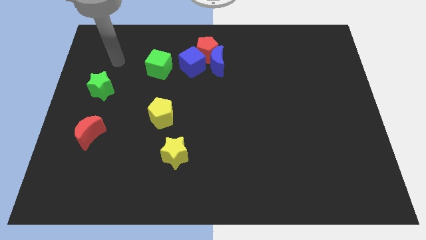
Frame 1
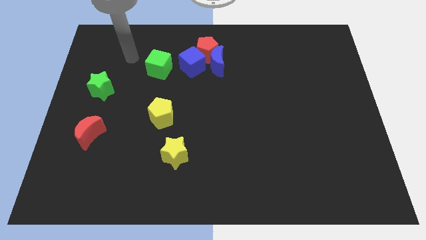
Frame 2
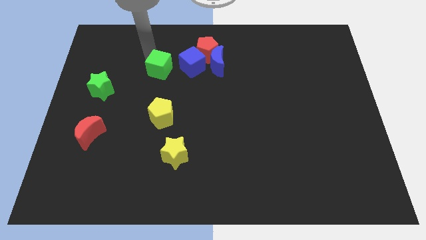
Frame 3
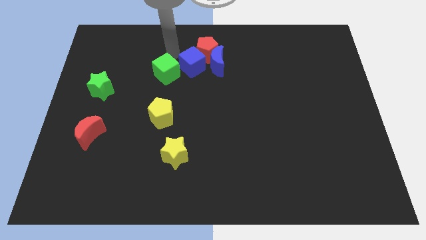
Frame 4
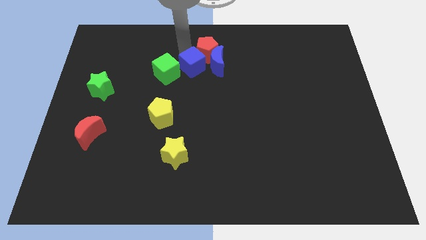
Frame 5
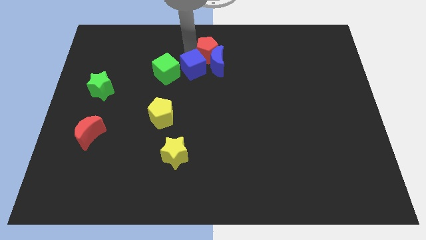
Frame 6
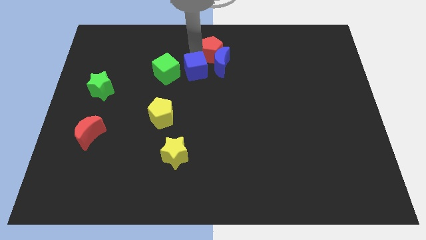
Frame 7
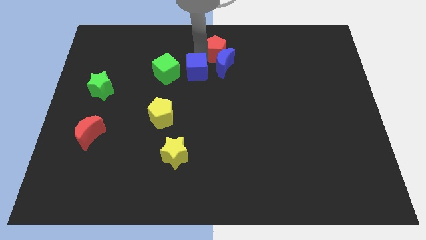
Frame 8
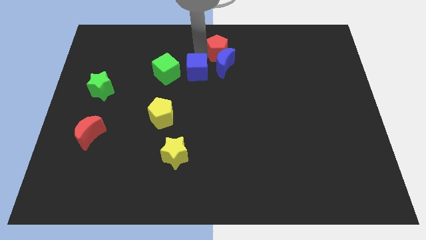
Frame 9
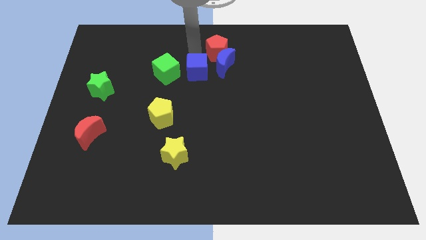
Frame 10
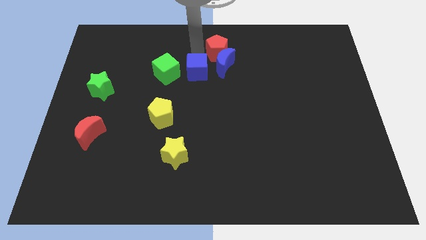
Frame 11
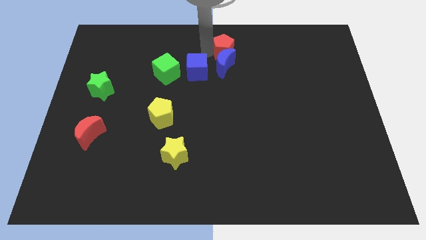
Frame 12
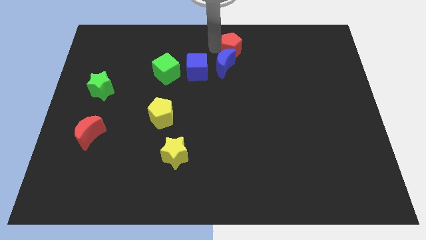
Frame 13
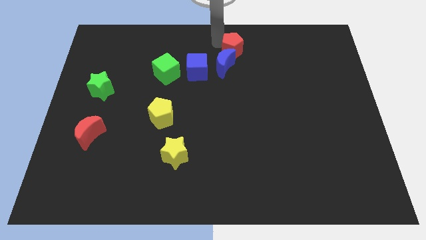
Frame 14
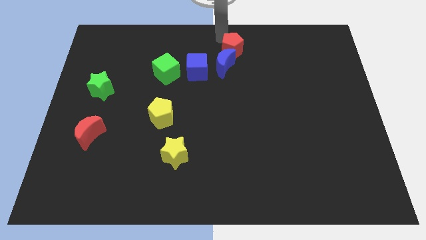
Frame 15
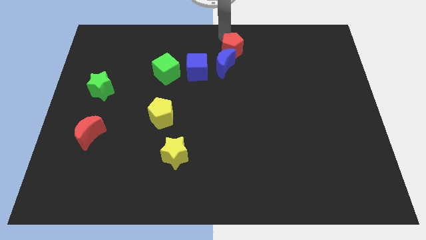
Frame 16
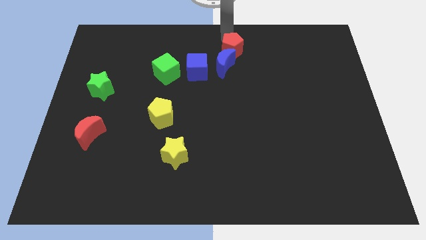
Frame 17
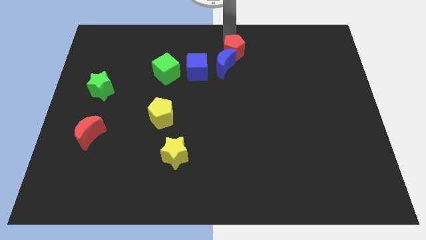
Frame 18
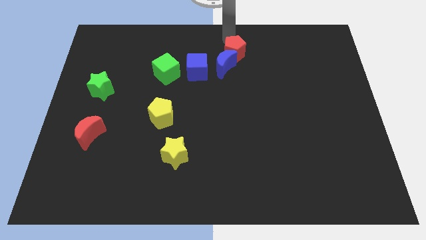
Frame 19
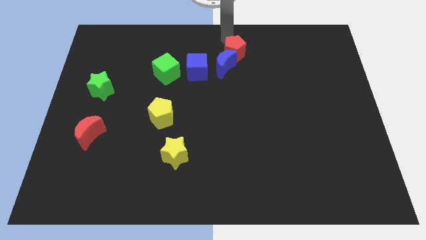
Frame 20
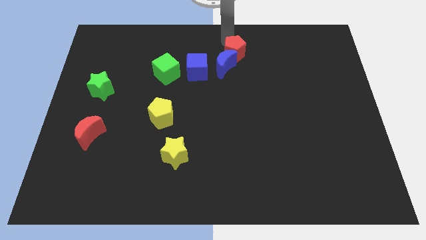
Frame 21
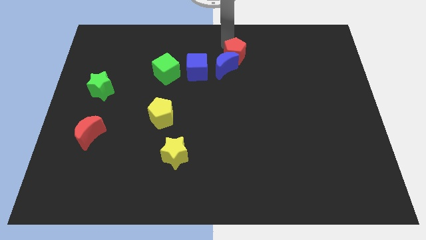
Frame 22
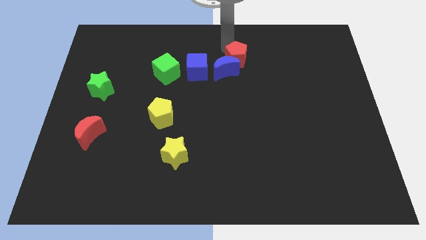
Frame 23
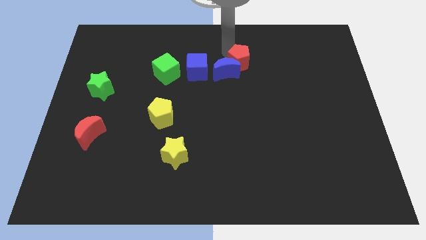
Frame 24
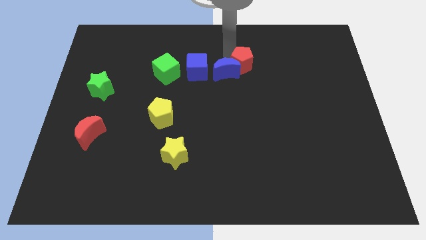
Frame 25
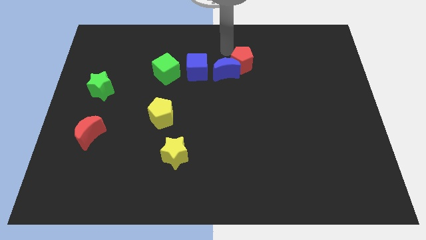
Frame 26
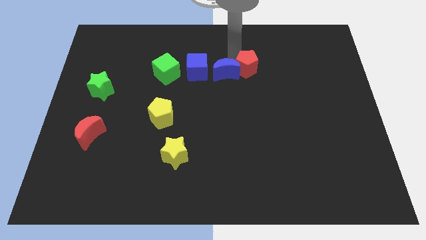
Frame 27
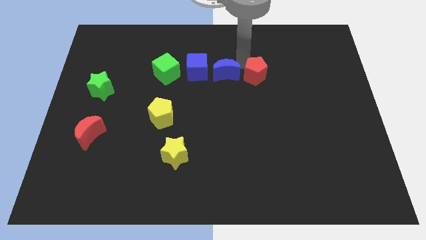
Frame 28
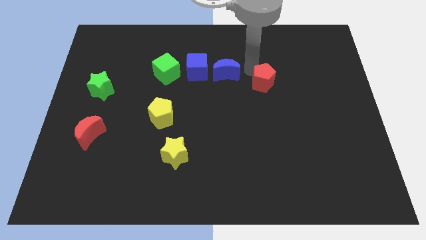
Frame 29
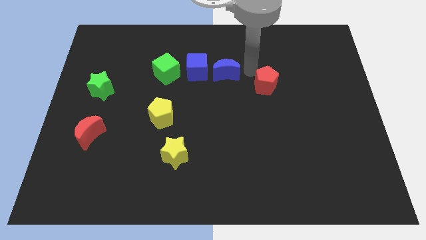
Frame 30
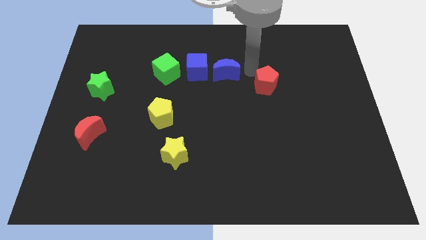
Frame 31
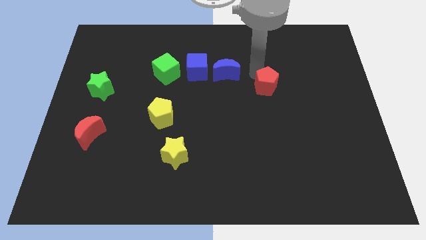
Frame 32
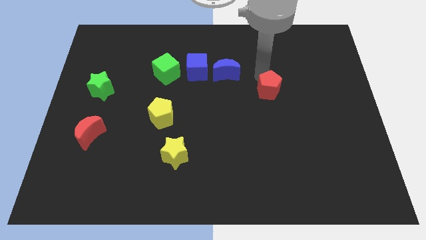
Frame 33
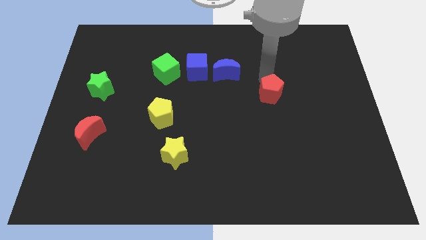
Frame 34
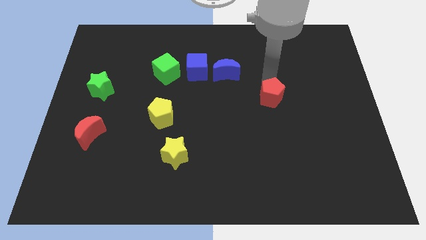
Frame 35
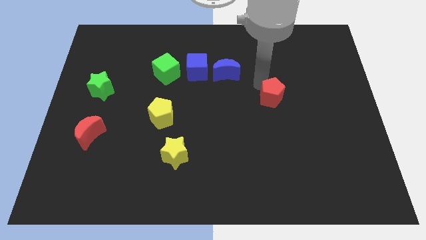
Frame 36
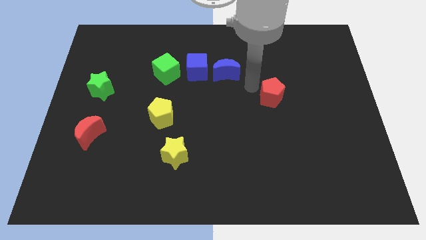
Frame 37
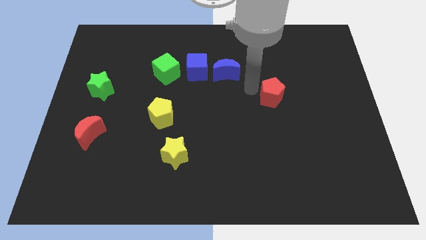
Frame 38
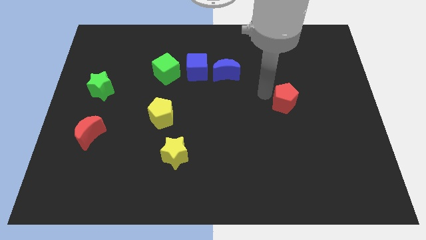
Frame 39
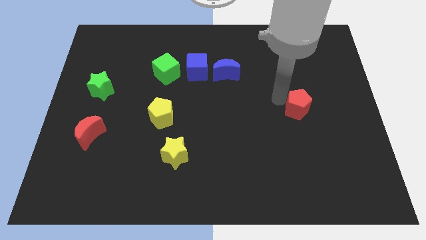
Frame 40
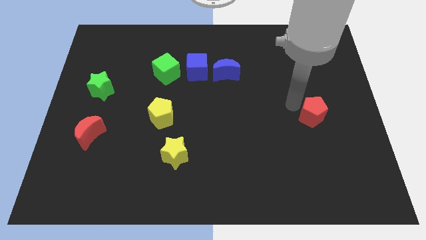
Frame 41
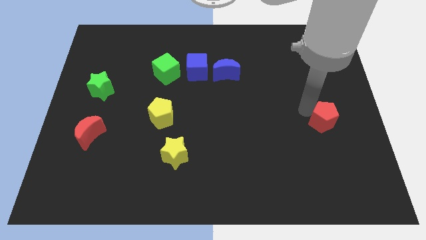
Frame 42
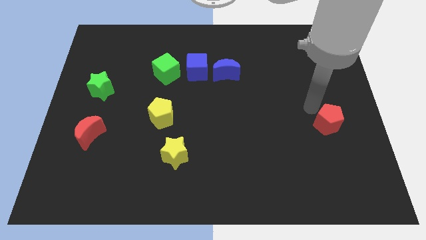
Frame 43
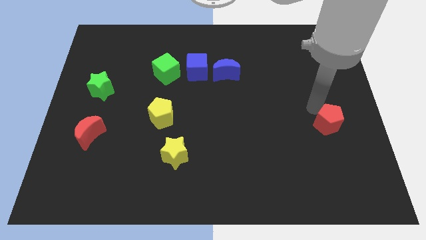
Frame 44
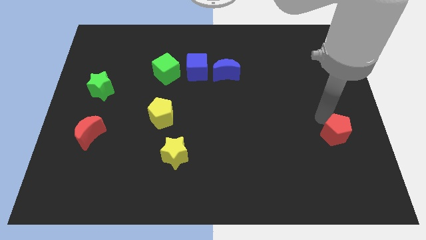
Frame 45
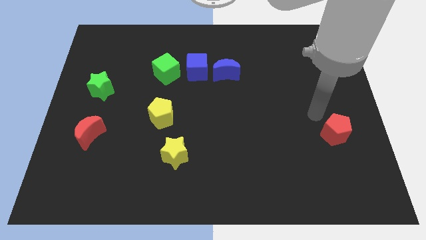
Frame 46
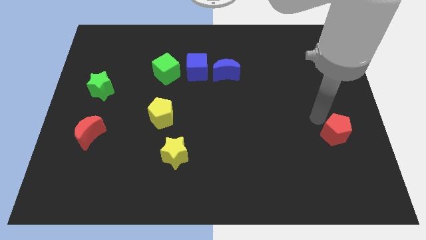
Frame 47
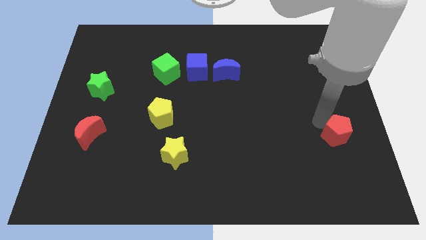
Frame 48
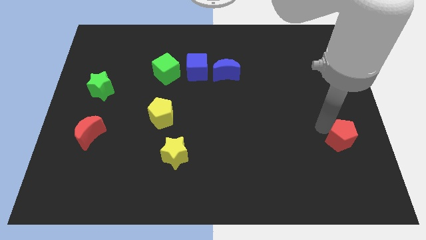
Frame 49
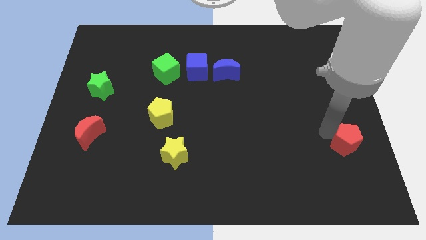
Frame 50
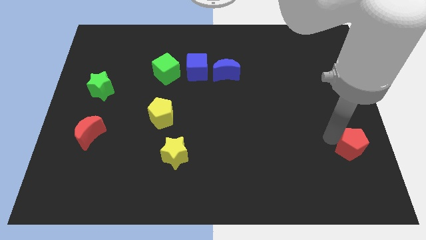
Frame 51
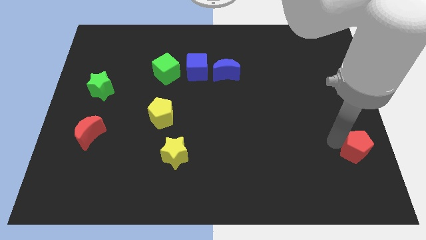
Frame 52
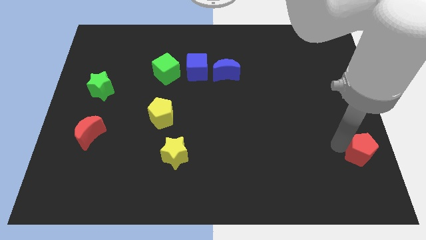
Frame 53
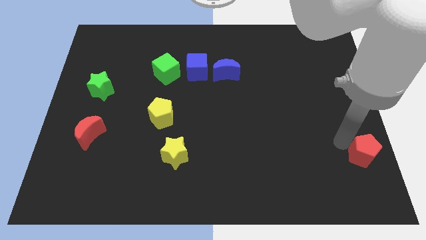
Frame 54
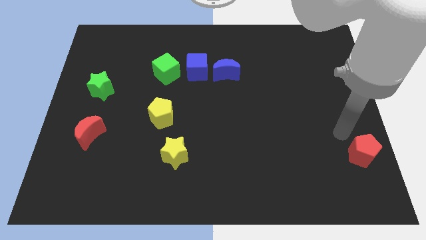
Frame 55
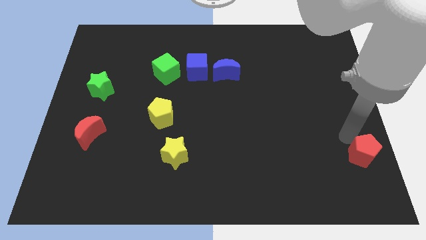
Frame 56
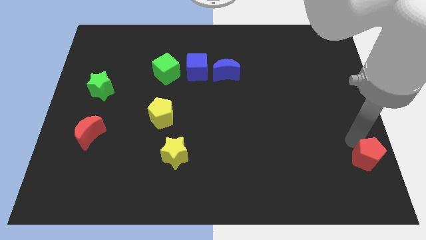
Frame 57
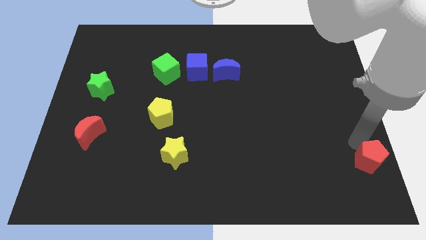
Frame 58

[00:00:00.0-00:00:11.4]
put the red pentagon to the bottom right
